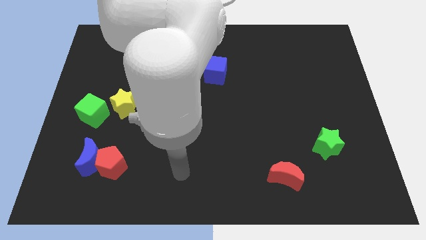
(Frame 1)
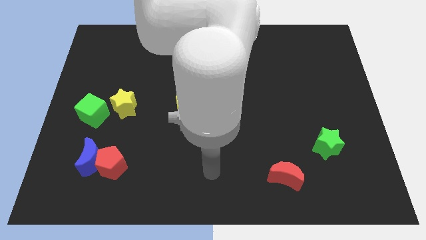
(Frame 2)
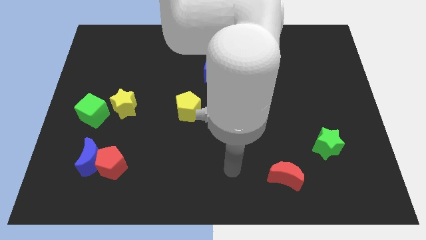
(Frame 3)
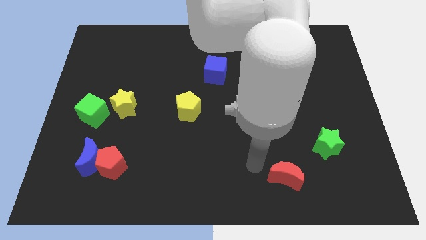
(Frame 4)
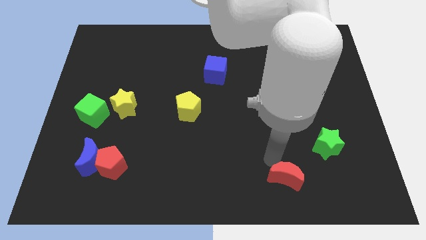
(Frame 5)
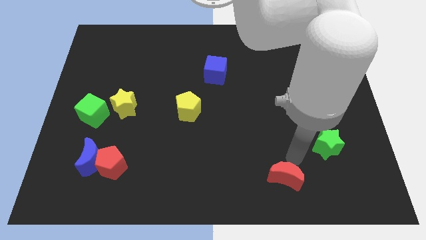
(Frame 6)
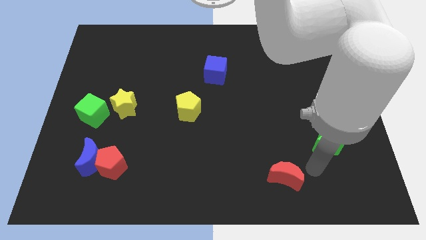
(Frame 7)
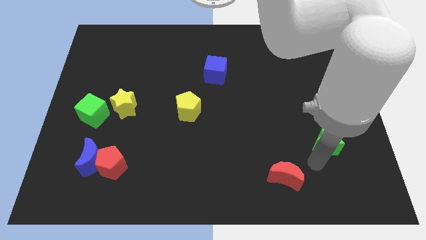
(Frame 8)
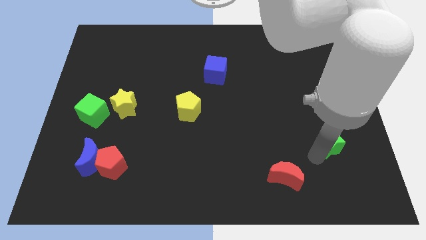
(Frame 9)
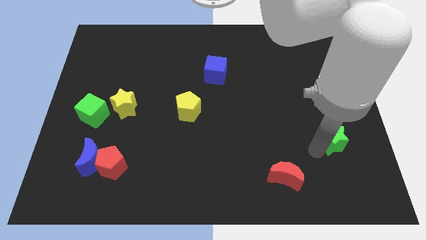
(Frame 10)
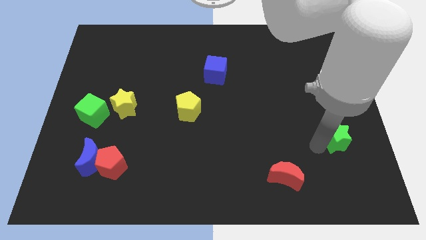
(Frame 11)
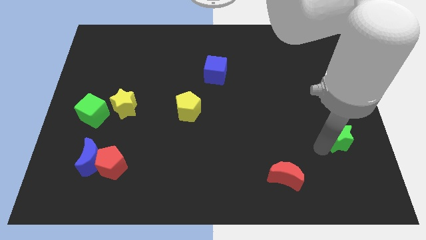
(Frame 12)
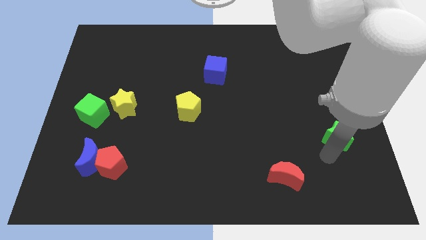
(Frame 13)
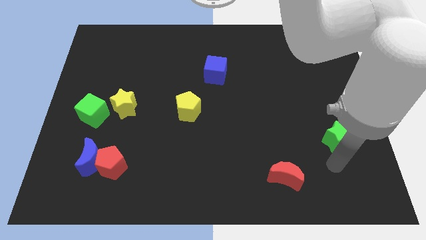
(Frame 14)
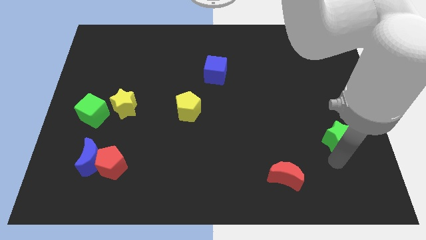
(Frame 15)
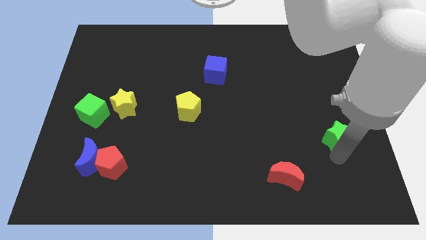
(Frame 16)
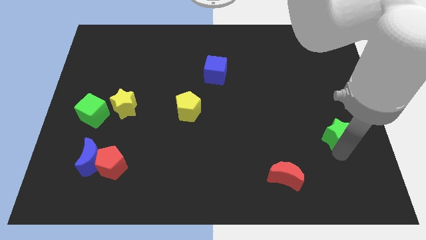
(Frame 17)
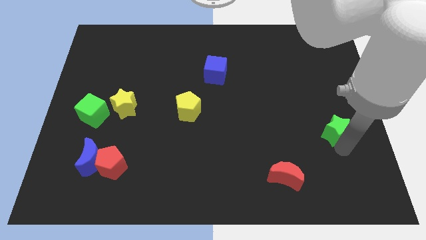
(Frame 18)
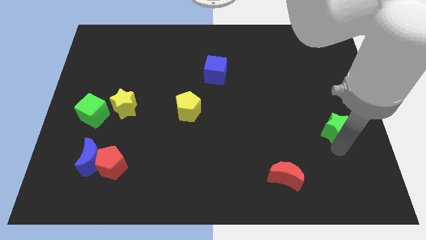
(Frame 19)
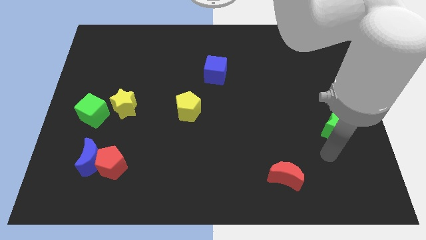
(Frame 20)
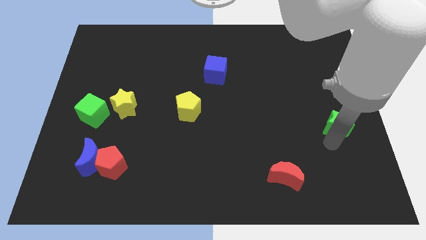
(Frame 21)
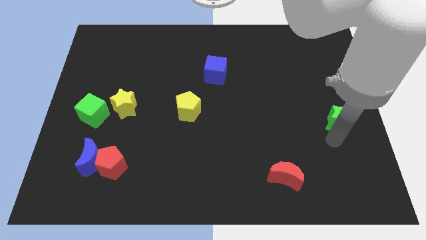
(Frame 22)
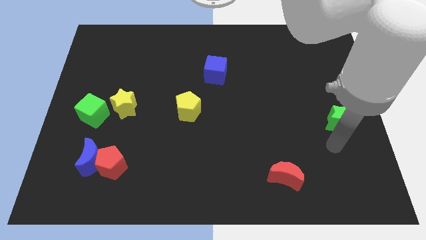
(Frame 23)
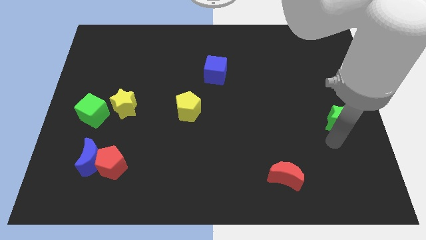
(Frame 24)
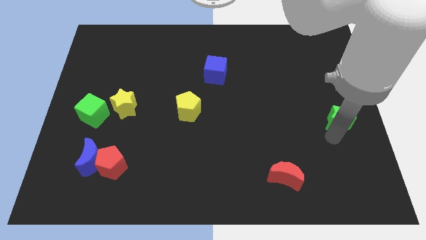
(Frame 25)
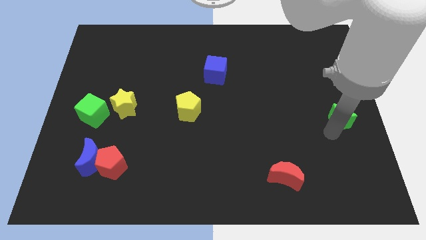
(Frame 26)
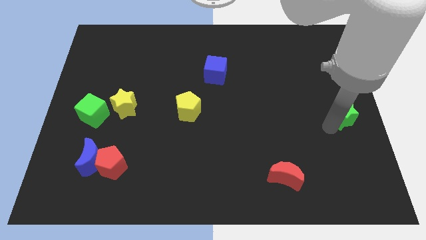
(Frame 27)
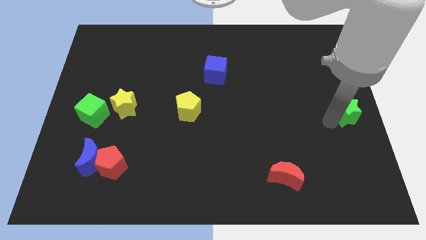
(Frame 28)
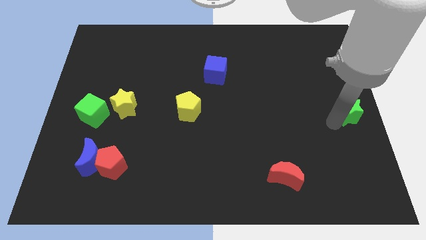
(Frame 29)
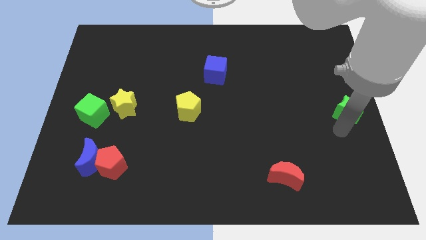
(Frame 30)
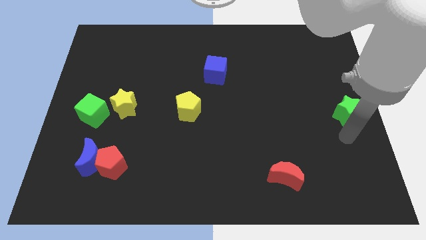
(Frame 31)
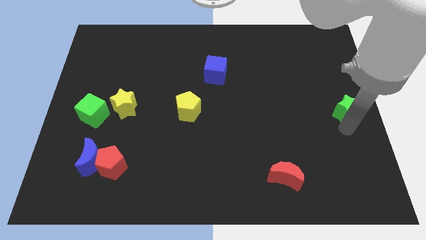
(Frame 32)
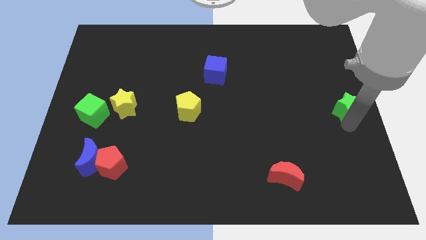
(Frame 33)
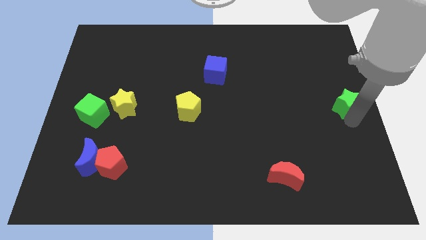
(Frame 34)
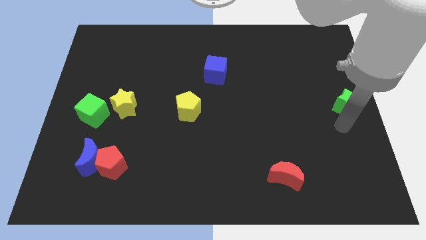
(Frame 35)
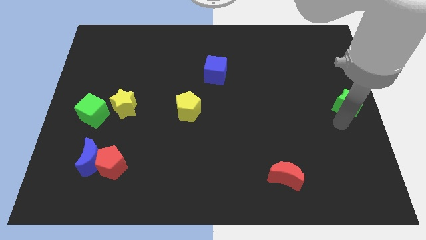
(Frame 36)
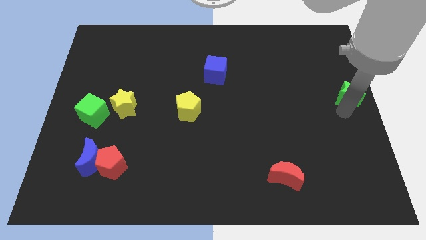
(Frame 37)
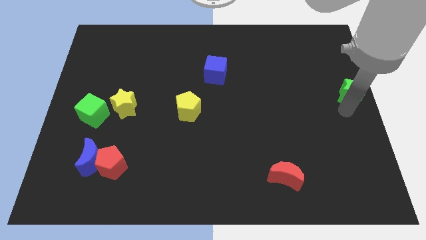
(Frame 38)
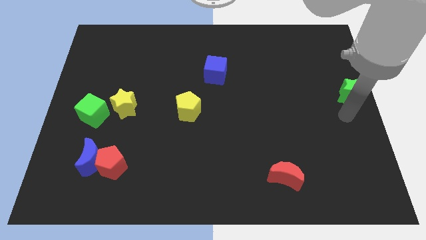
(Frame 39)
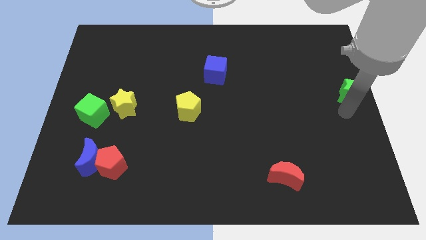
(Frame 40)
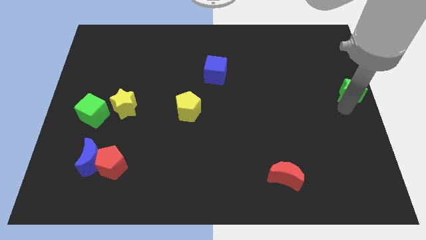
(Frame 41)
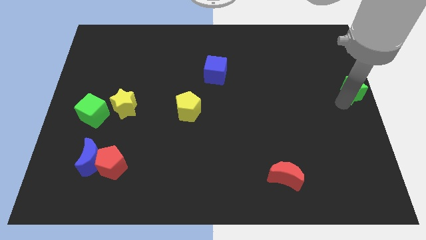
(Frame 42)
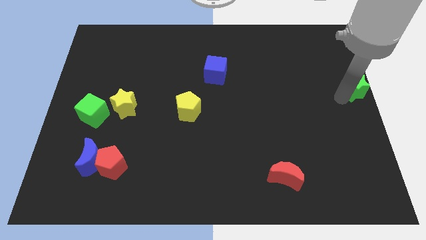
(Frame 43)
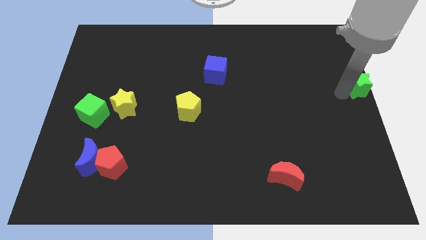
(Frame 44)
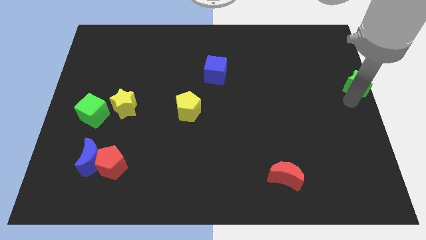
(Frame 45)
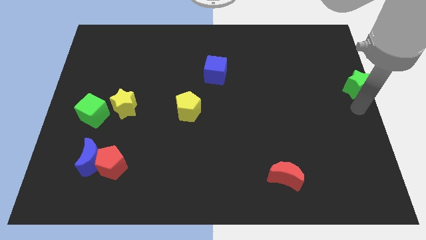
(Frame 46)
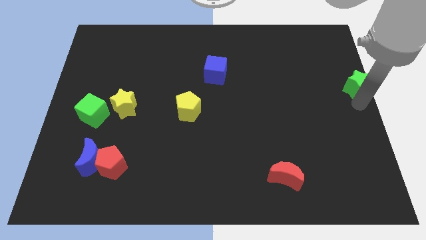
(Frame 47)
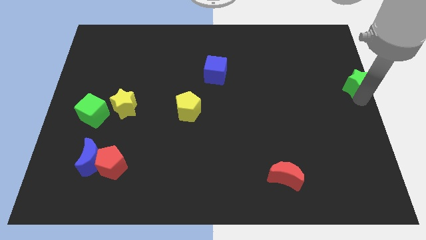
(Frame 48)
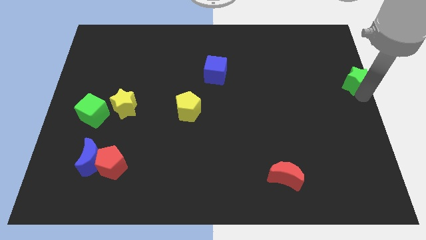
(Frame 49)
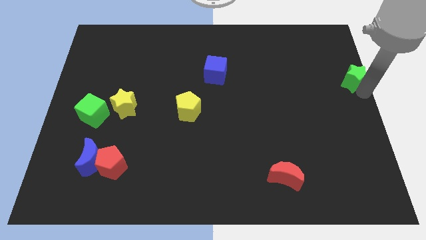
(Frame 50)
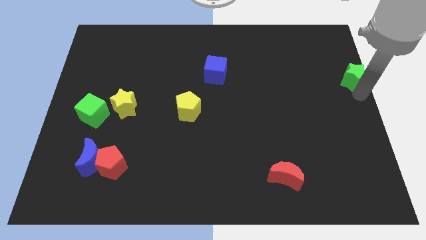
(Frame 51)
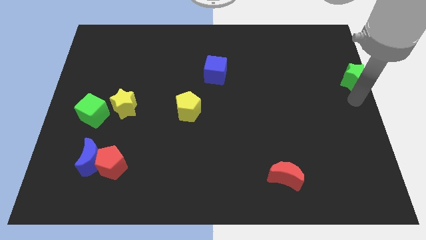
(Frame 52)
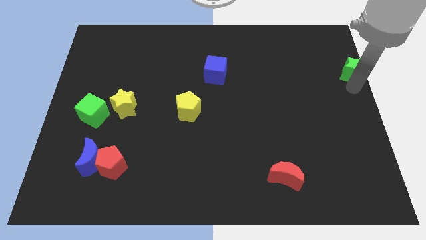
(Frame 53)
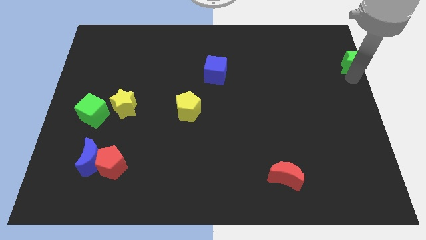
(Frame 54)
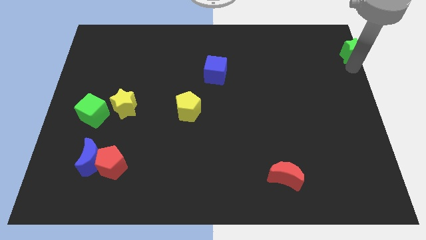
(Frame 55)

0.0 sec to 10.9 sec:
push the green star to the top right of the board

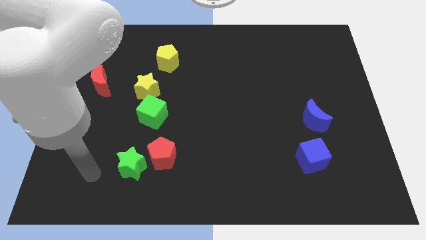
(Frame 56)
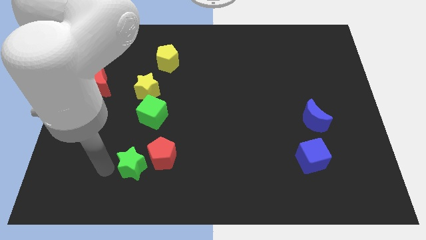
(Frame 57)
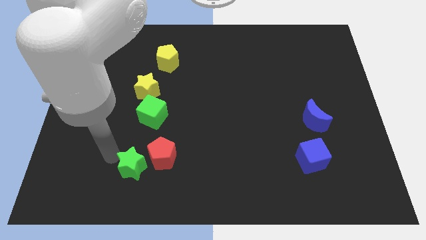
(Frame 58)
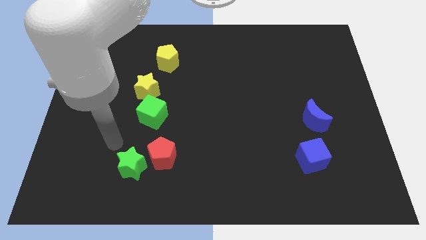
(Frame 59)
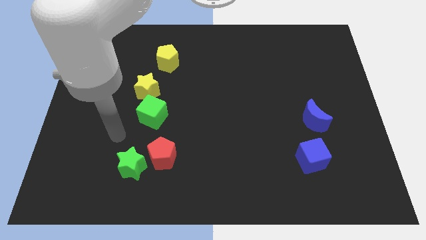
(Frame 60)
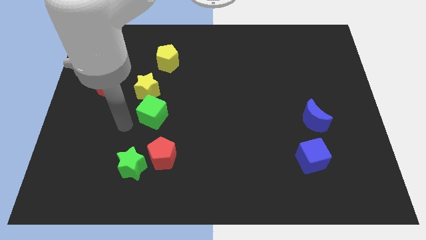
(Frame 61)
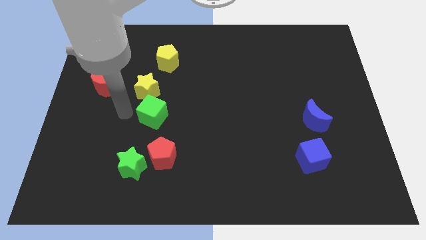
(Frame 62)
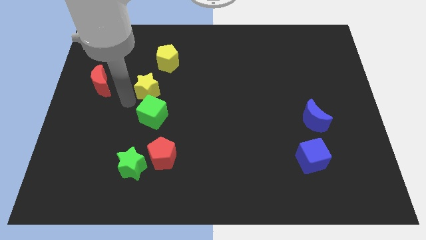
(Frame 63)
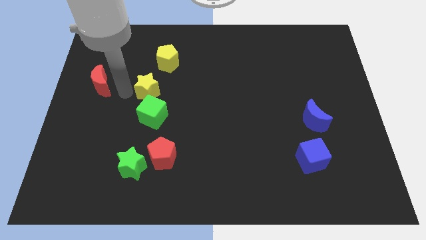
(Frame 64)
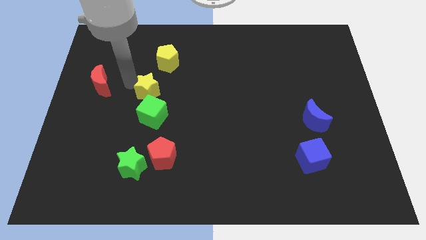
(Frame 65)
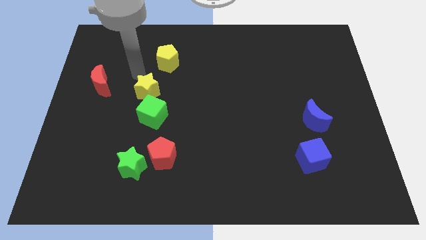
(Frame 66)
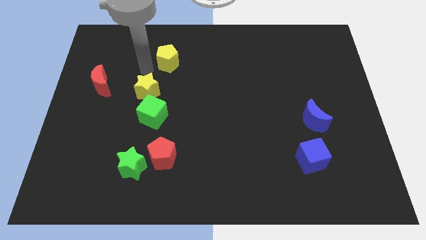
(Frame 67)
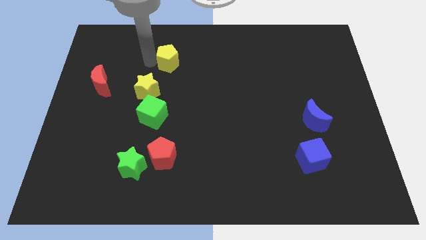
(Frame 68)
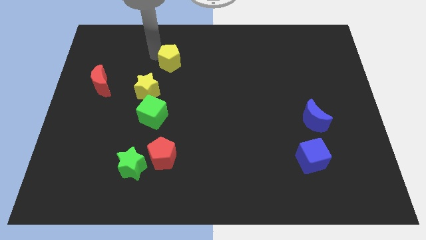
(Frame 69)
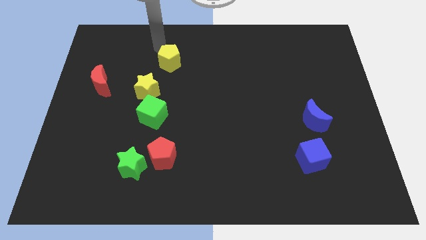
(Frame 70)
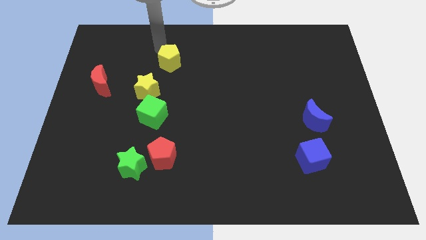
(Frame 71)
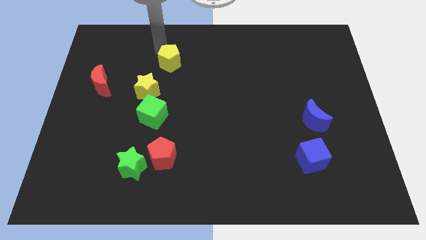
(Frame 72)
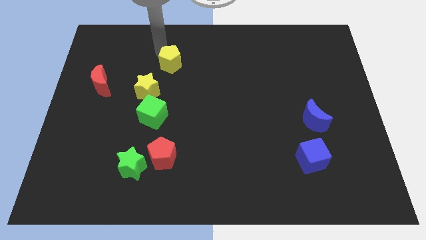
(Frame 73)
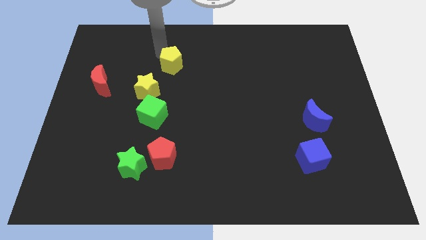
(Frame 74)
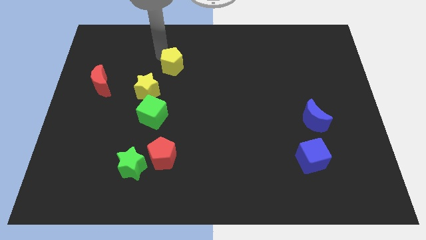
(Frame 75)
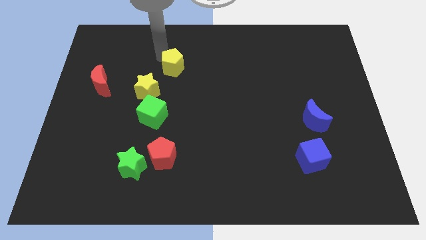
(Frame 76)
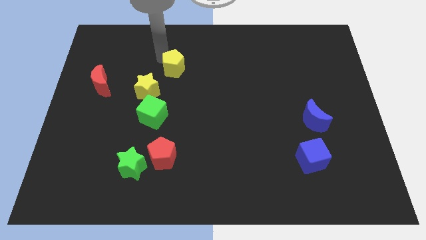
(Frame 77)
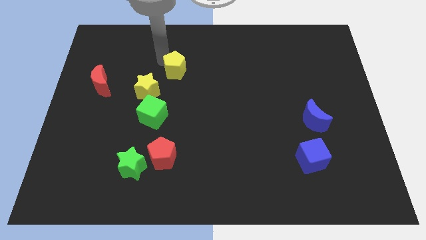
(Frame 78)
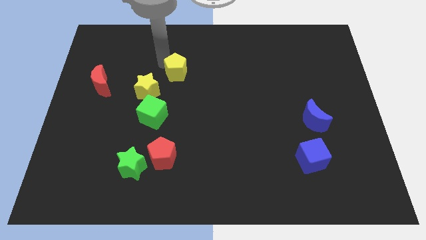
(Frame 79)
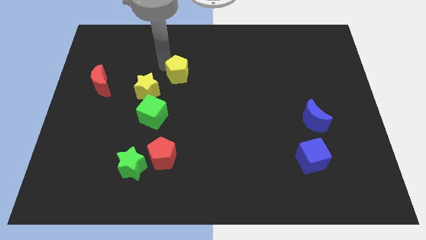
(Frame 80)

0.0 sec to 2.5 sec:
move the yellow pentagon to the center of the board
